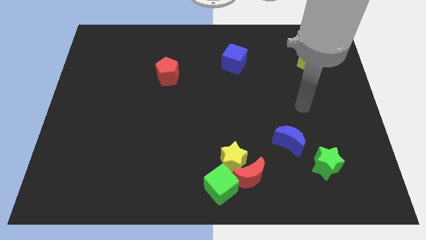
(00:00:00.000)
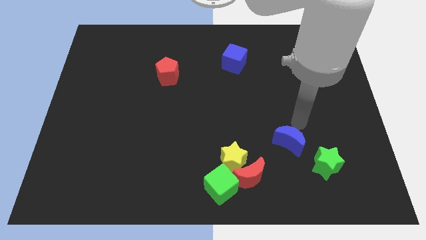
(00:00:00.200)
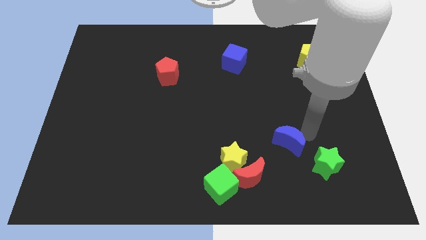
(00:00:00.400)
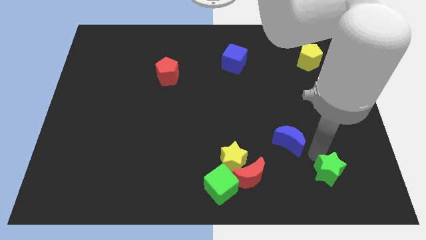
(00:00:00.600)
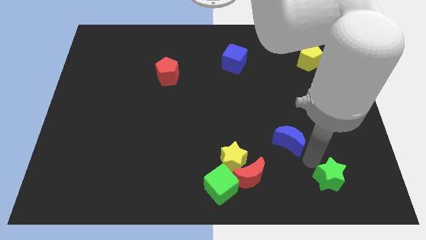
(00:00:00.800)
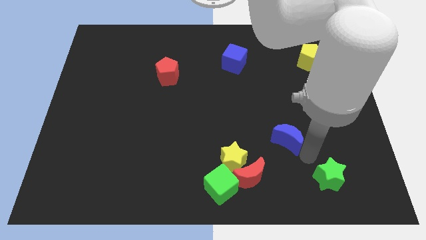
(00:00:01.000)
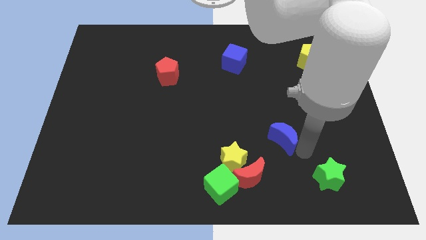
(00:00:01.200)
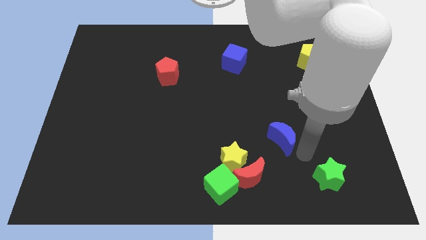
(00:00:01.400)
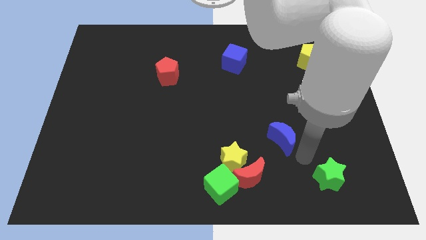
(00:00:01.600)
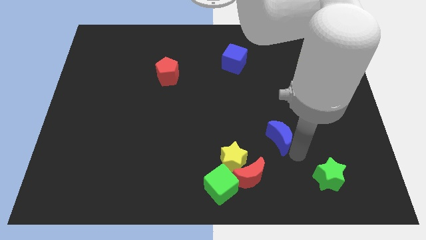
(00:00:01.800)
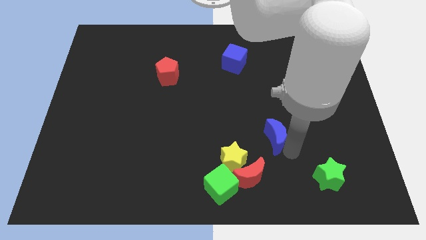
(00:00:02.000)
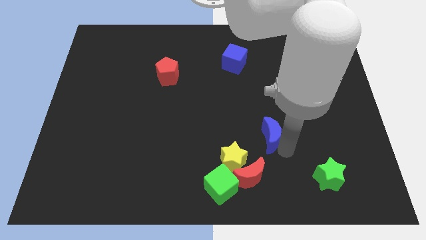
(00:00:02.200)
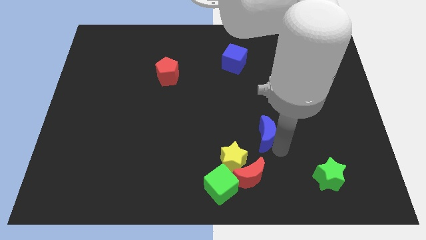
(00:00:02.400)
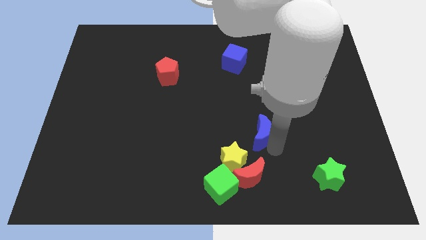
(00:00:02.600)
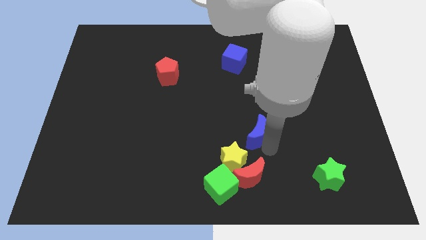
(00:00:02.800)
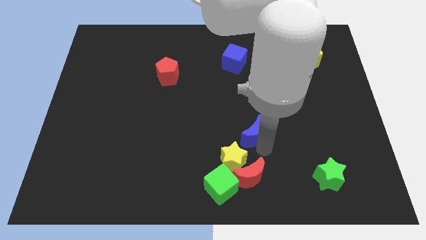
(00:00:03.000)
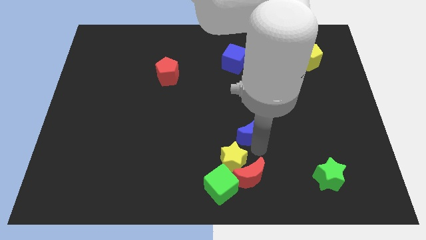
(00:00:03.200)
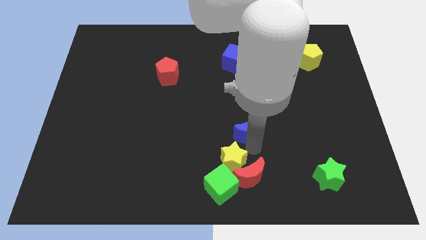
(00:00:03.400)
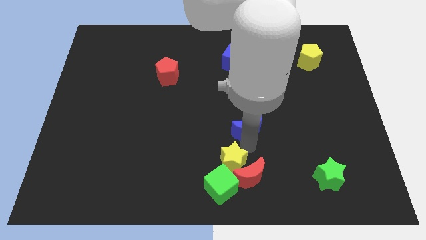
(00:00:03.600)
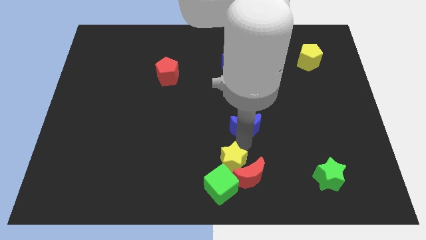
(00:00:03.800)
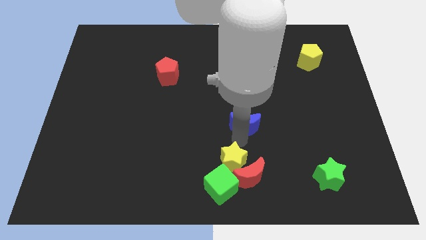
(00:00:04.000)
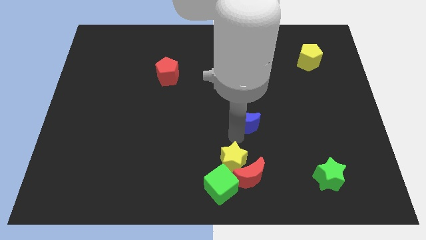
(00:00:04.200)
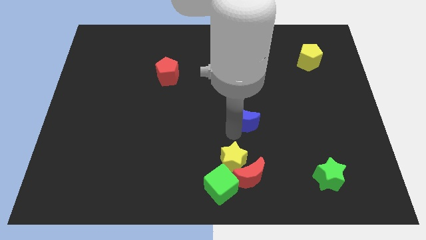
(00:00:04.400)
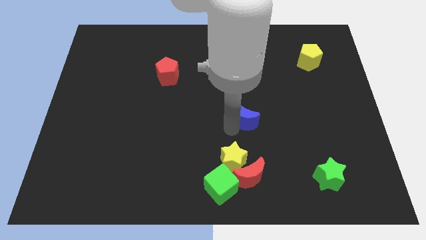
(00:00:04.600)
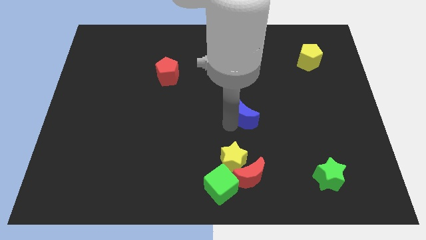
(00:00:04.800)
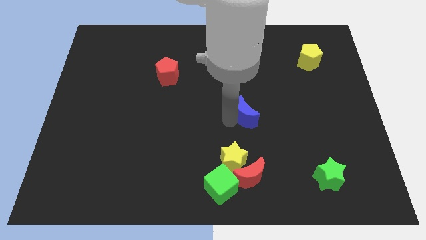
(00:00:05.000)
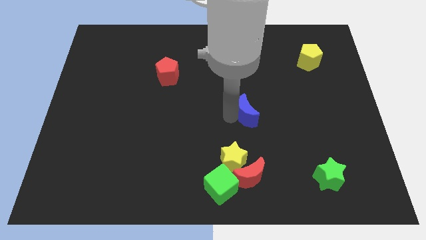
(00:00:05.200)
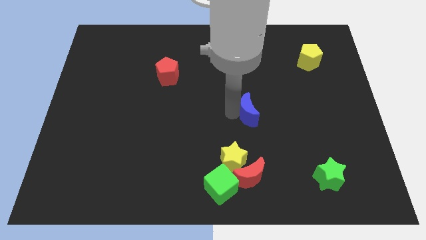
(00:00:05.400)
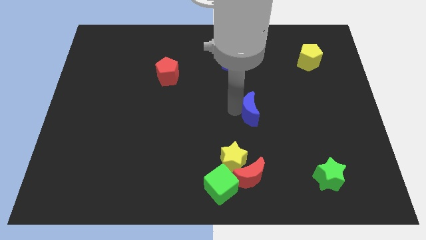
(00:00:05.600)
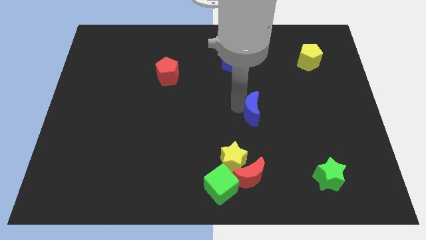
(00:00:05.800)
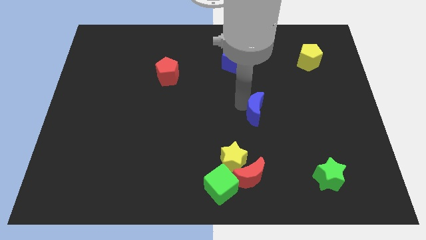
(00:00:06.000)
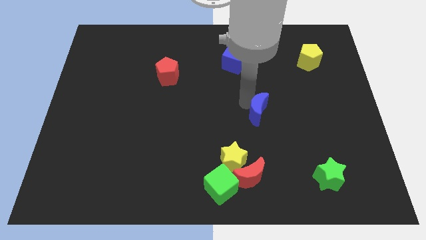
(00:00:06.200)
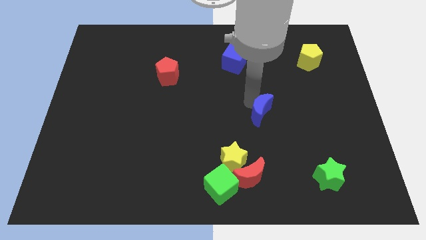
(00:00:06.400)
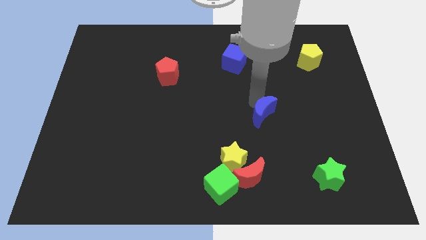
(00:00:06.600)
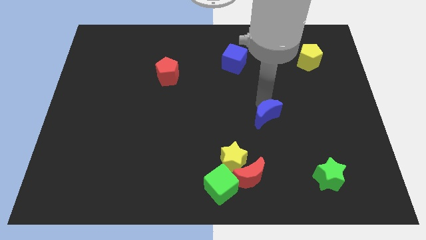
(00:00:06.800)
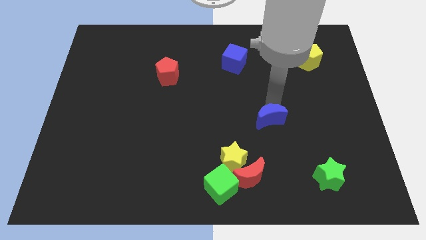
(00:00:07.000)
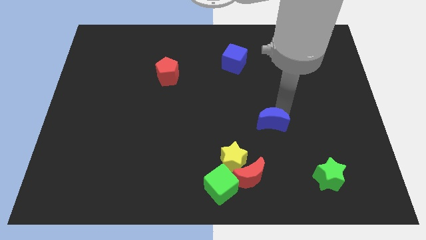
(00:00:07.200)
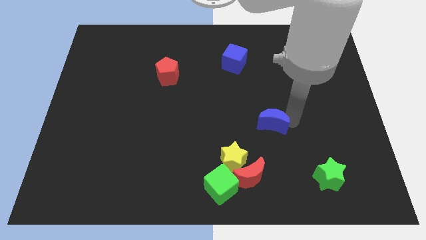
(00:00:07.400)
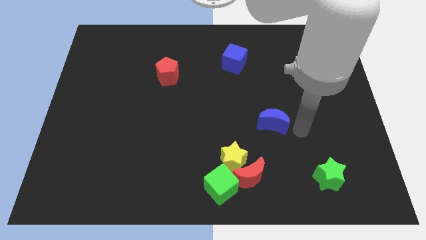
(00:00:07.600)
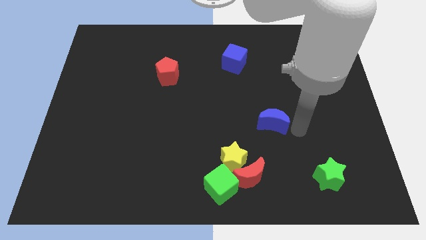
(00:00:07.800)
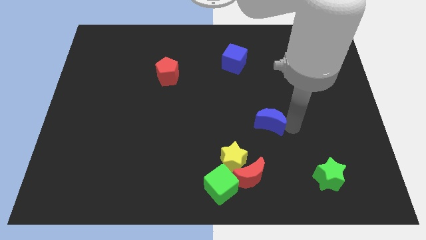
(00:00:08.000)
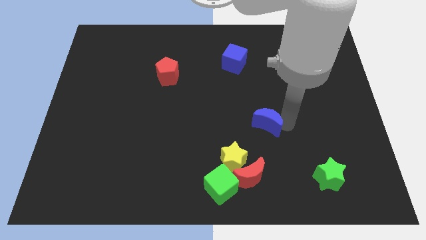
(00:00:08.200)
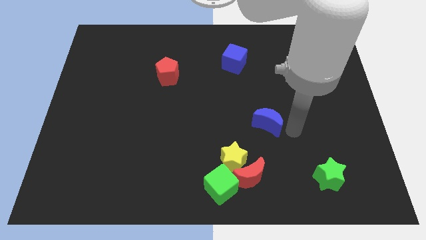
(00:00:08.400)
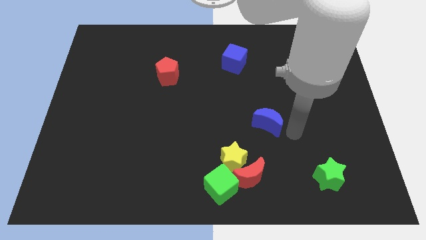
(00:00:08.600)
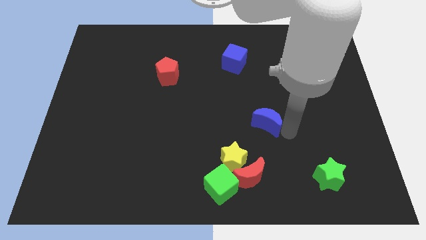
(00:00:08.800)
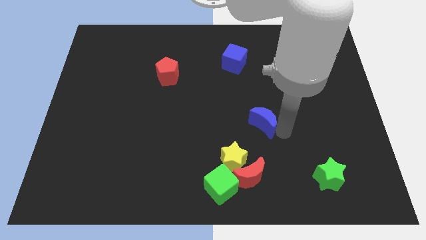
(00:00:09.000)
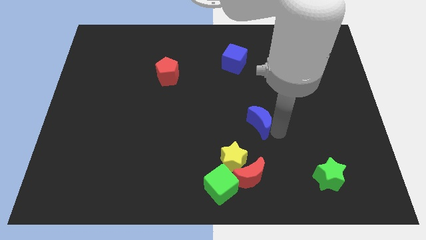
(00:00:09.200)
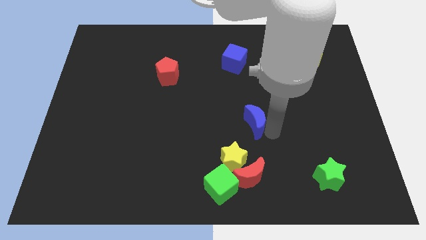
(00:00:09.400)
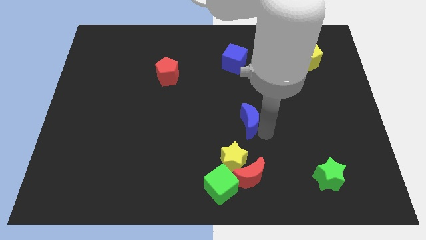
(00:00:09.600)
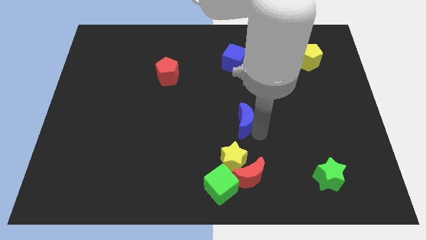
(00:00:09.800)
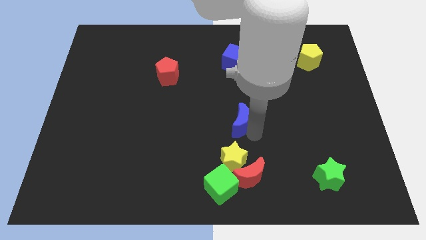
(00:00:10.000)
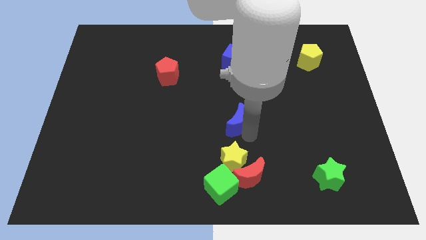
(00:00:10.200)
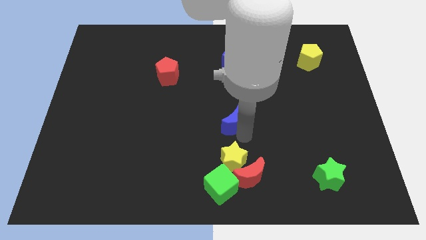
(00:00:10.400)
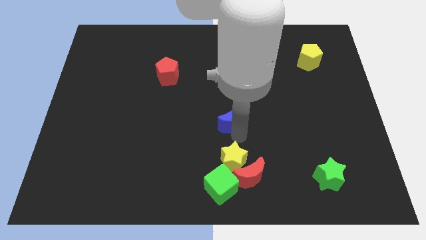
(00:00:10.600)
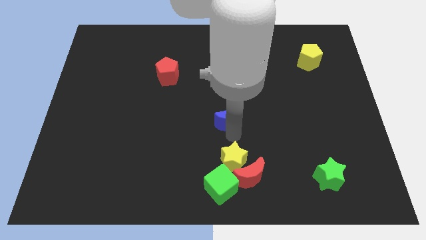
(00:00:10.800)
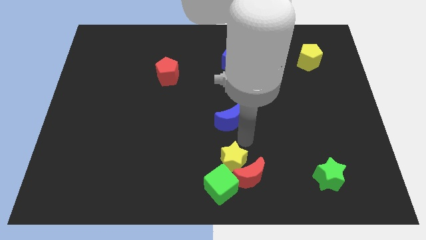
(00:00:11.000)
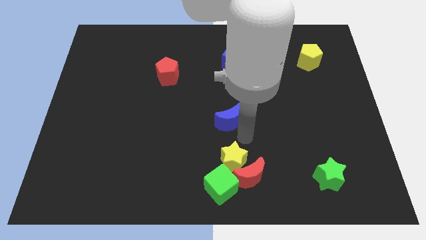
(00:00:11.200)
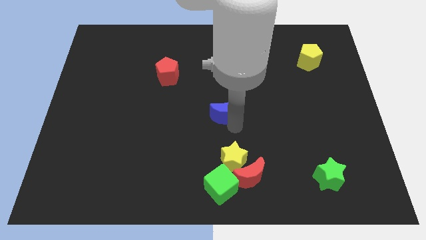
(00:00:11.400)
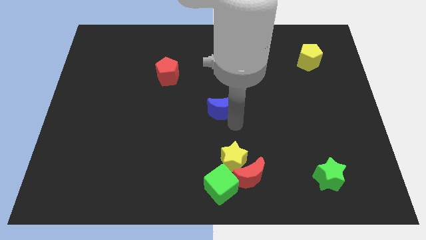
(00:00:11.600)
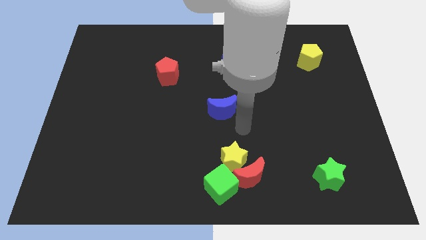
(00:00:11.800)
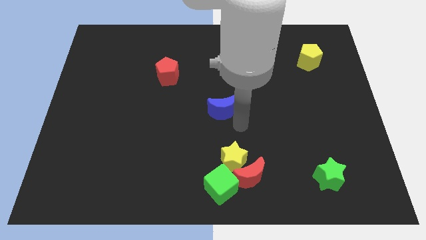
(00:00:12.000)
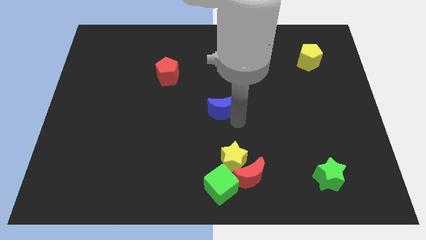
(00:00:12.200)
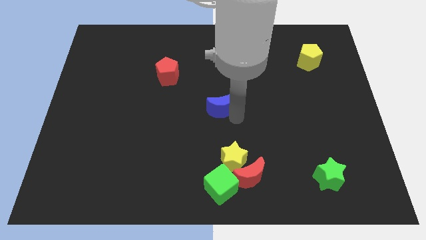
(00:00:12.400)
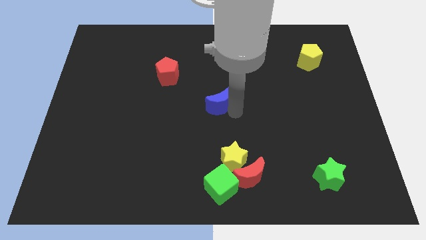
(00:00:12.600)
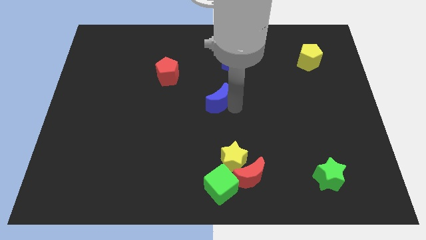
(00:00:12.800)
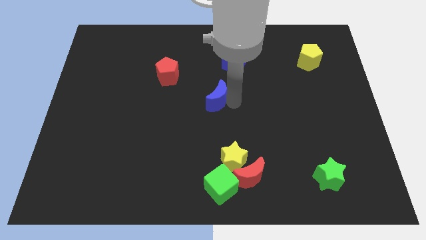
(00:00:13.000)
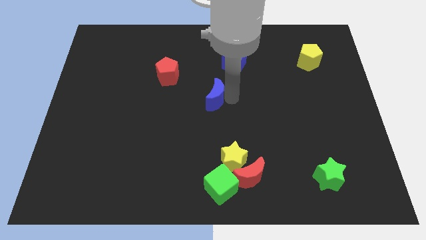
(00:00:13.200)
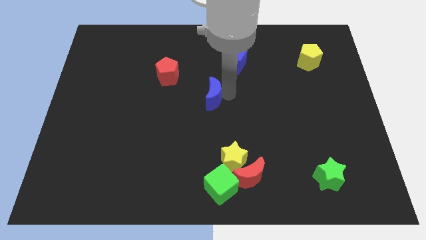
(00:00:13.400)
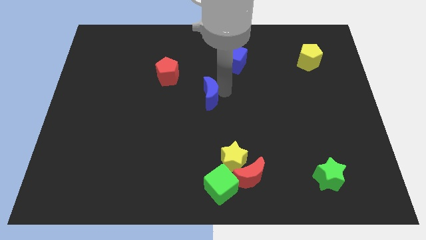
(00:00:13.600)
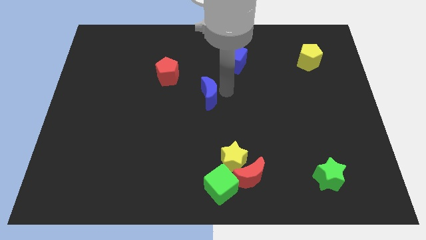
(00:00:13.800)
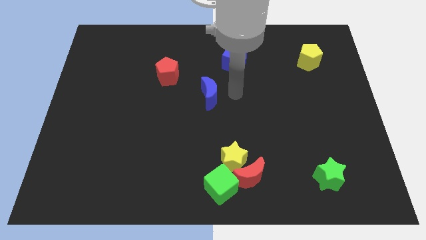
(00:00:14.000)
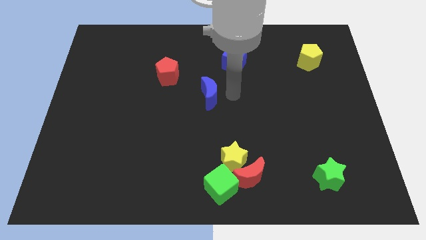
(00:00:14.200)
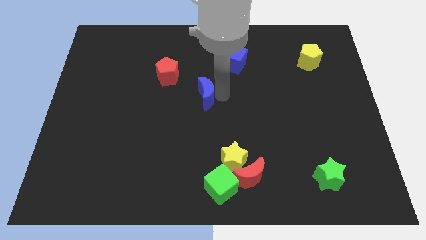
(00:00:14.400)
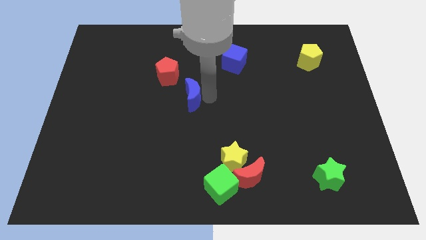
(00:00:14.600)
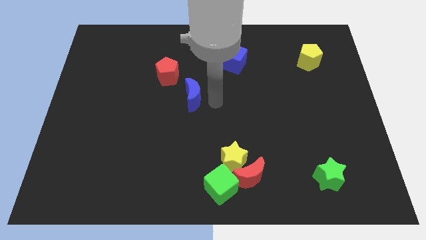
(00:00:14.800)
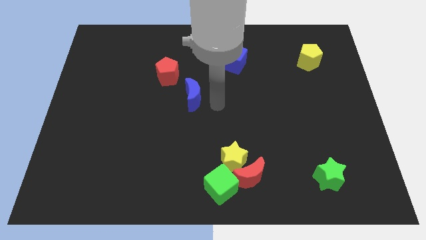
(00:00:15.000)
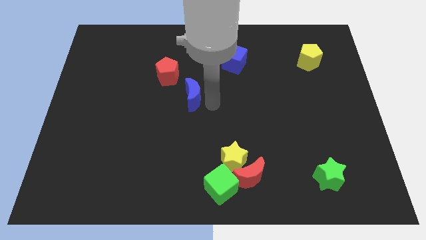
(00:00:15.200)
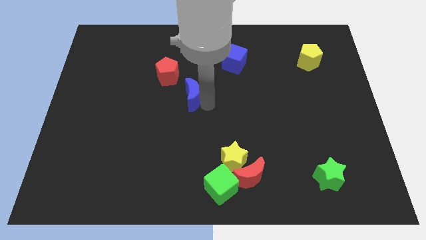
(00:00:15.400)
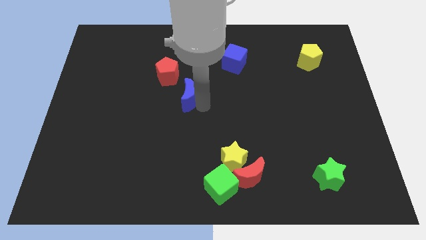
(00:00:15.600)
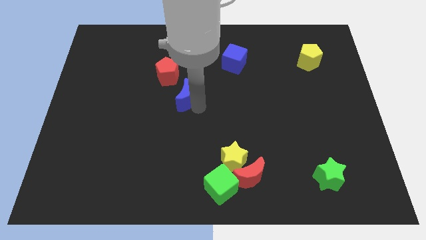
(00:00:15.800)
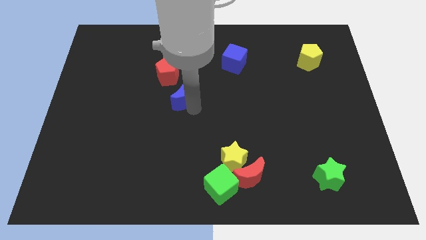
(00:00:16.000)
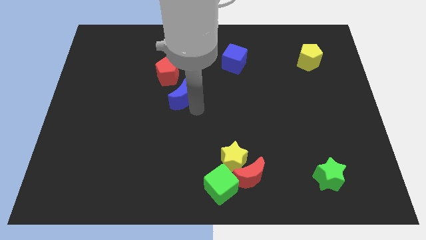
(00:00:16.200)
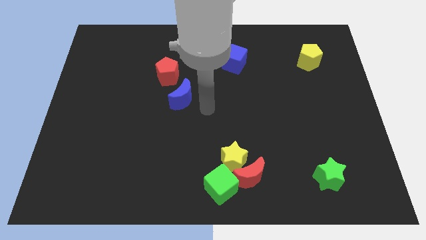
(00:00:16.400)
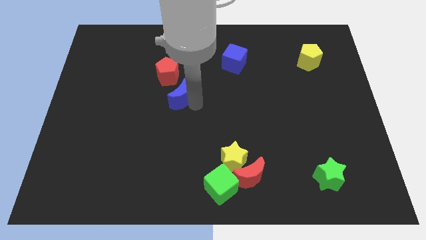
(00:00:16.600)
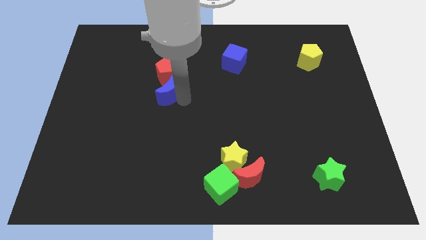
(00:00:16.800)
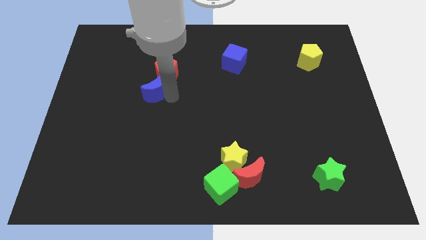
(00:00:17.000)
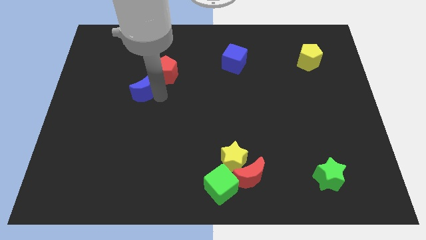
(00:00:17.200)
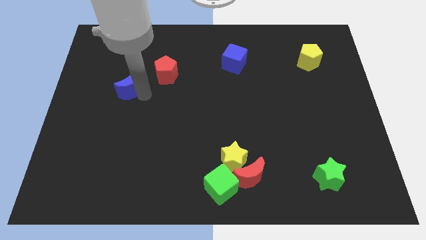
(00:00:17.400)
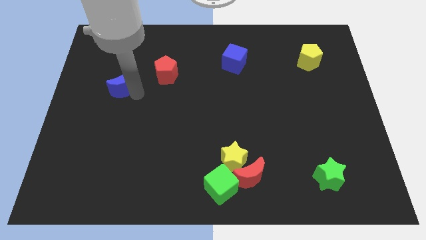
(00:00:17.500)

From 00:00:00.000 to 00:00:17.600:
slide the blue moon left of the red pentagon
